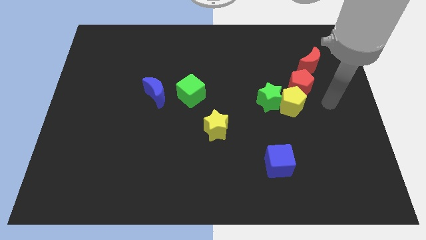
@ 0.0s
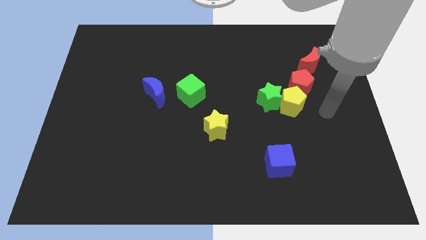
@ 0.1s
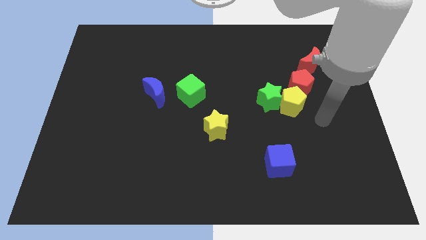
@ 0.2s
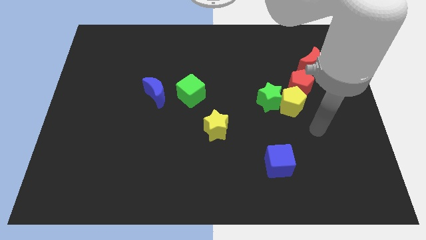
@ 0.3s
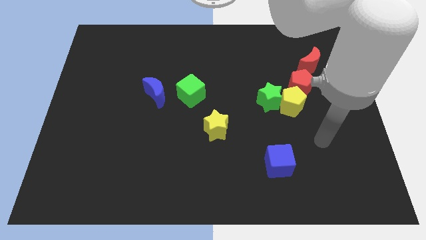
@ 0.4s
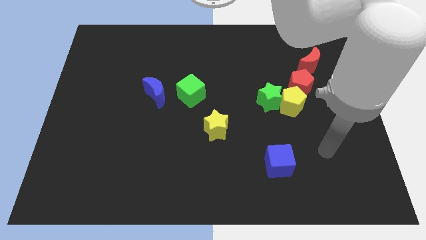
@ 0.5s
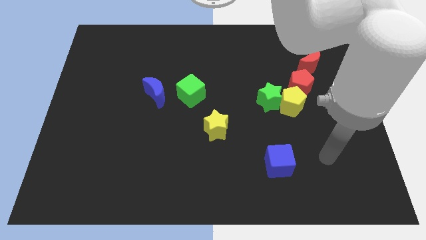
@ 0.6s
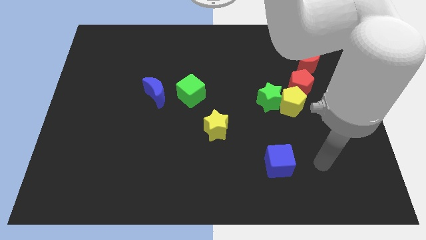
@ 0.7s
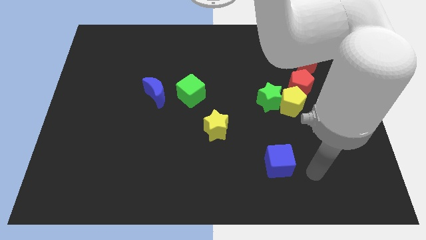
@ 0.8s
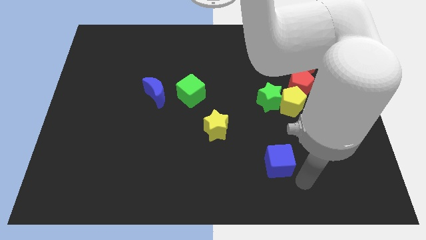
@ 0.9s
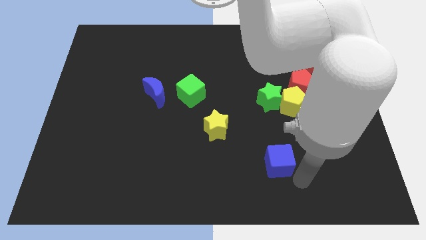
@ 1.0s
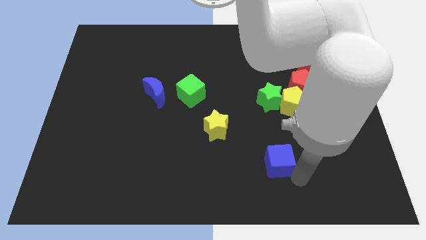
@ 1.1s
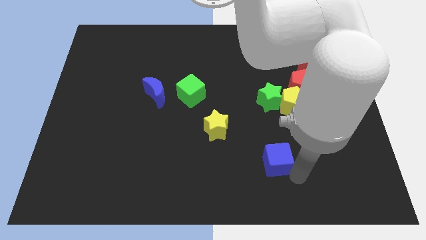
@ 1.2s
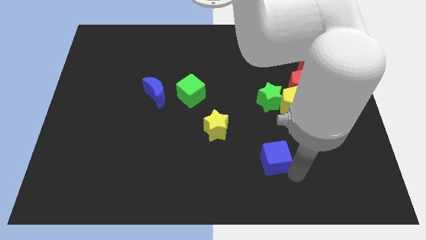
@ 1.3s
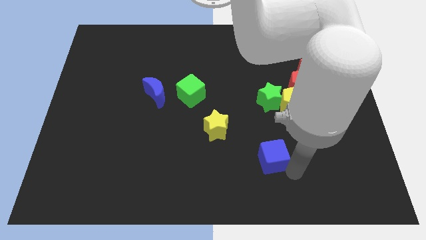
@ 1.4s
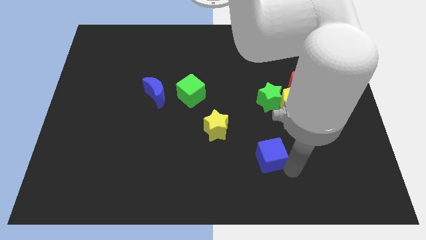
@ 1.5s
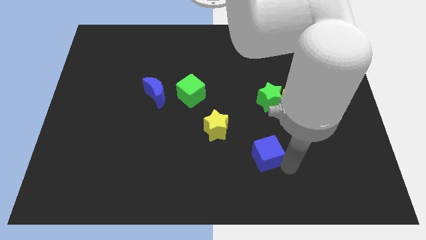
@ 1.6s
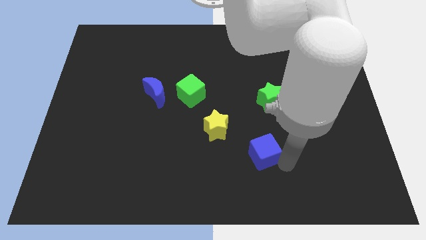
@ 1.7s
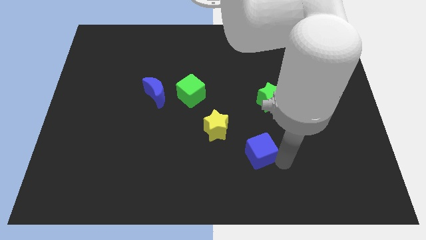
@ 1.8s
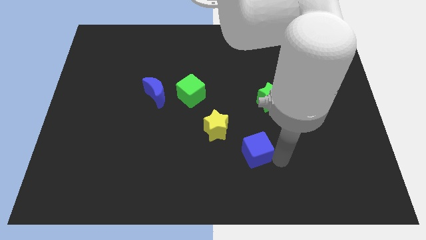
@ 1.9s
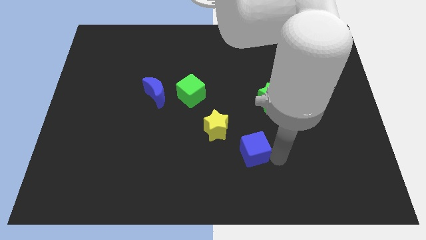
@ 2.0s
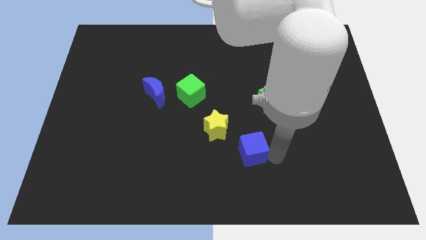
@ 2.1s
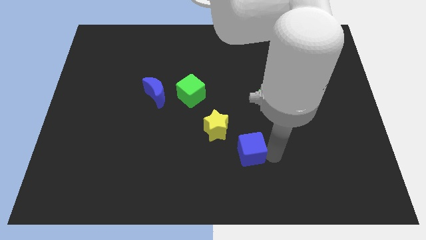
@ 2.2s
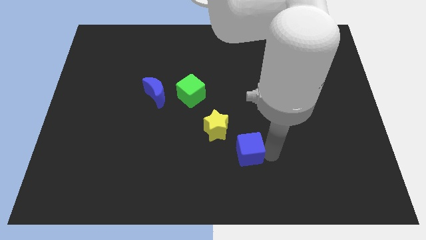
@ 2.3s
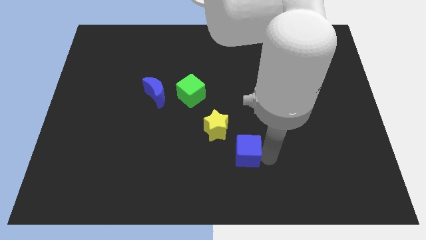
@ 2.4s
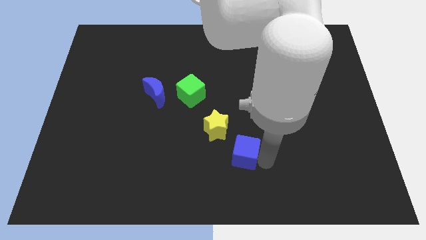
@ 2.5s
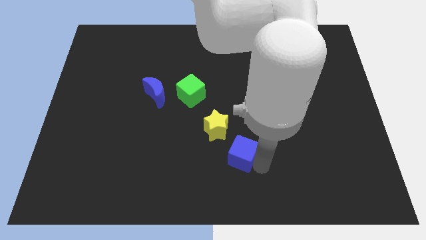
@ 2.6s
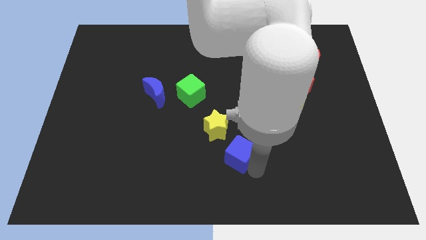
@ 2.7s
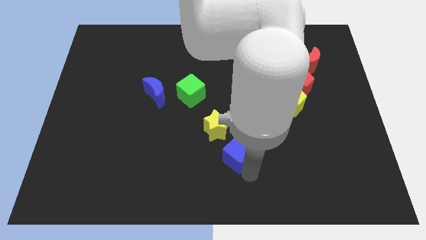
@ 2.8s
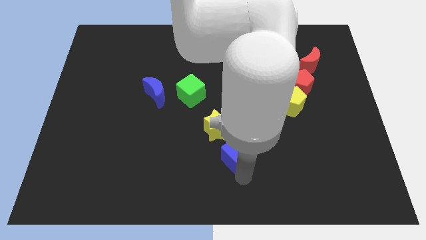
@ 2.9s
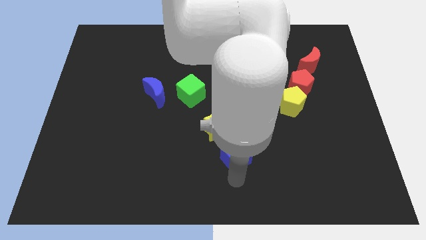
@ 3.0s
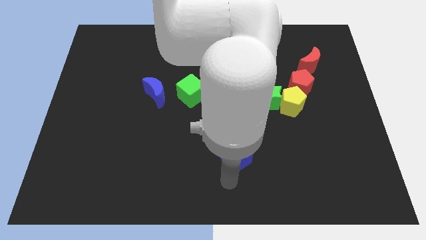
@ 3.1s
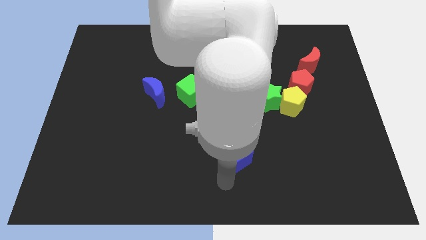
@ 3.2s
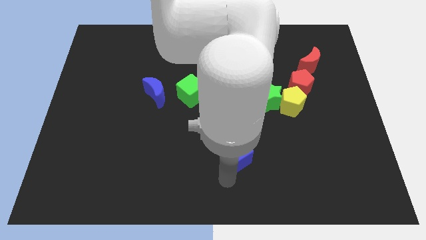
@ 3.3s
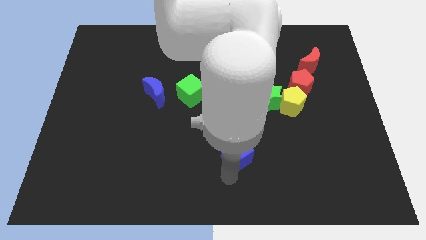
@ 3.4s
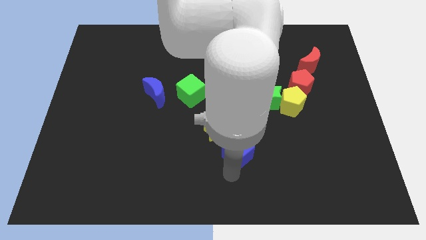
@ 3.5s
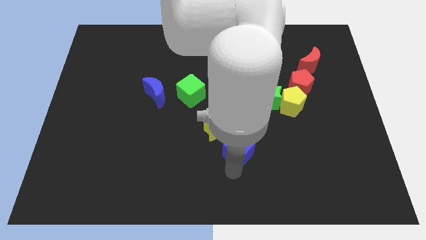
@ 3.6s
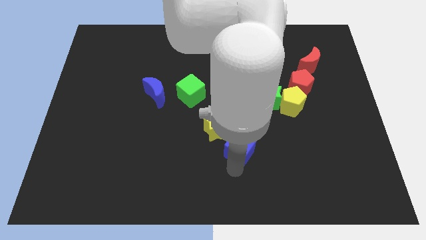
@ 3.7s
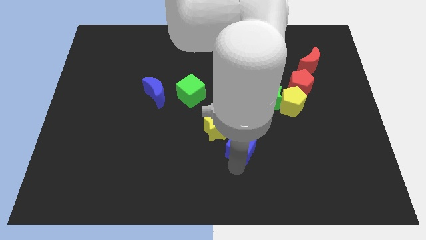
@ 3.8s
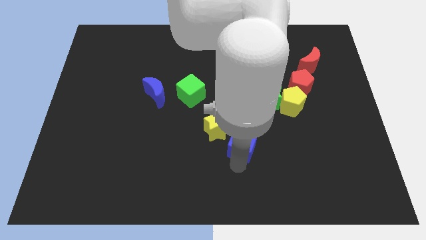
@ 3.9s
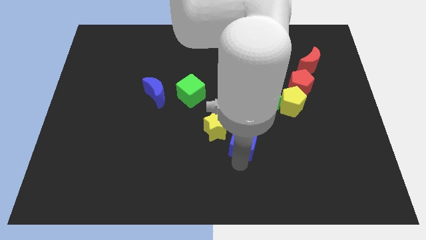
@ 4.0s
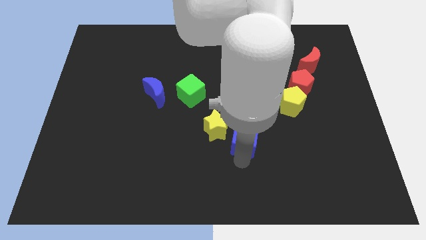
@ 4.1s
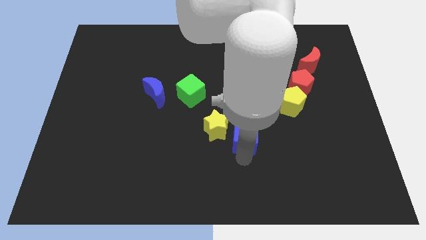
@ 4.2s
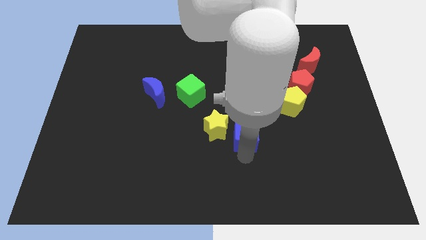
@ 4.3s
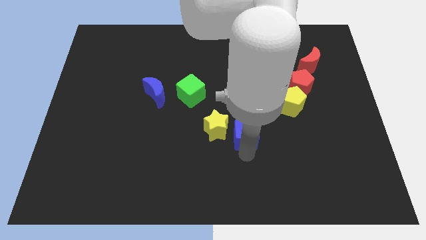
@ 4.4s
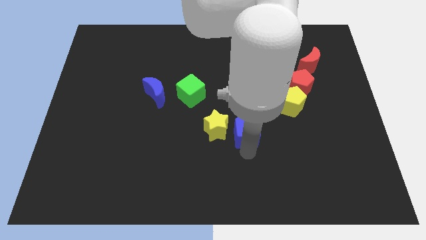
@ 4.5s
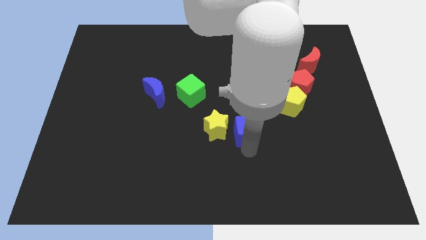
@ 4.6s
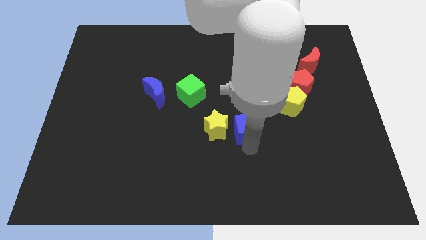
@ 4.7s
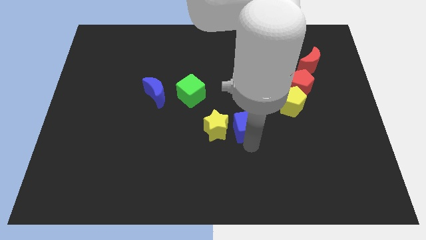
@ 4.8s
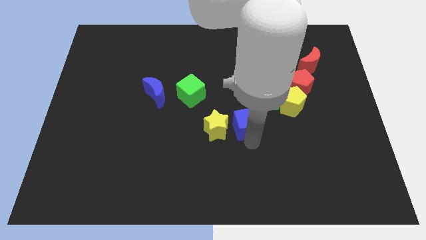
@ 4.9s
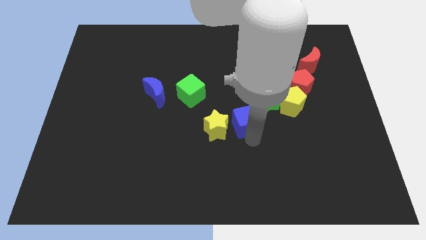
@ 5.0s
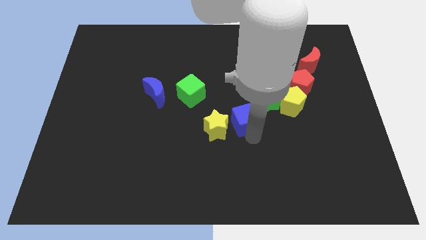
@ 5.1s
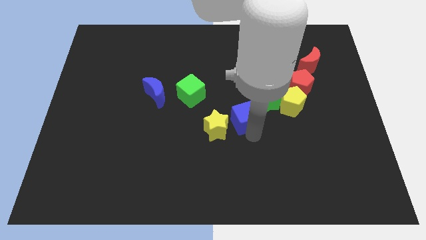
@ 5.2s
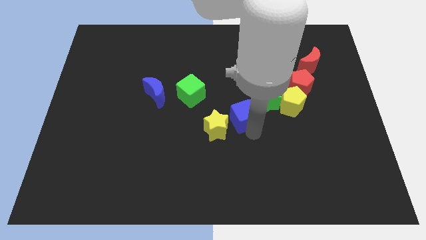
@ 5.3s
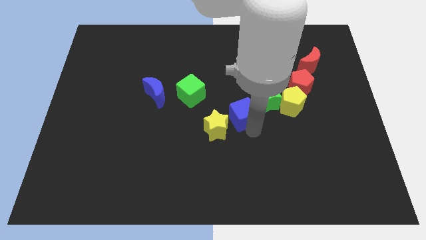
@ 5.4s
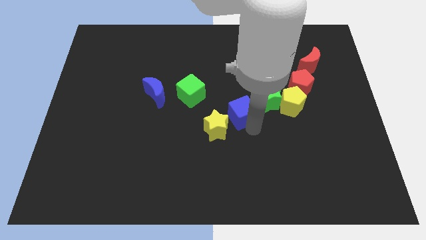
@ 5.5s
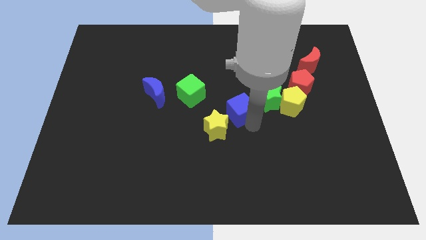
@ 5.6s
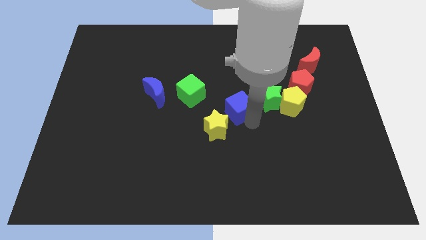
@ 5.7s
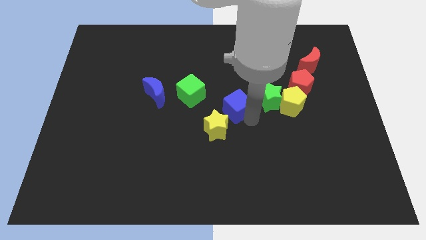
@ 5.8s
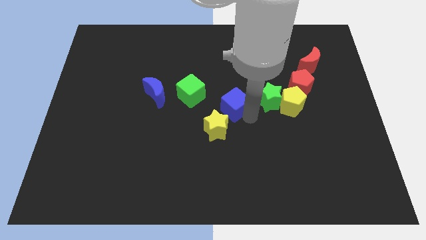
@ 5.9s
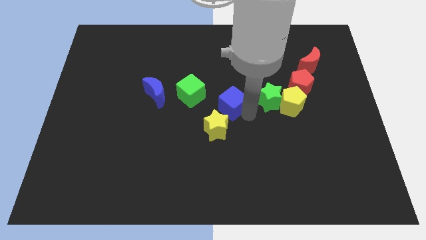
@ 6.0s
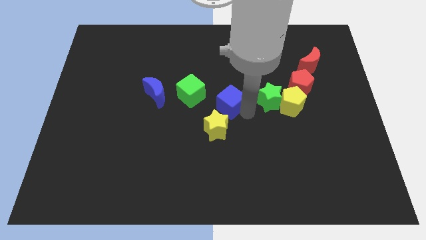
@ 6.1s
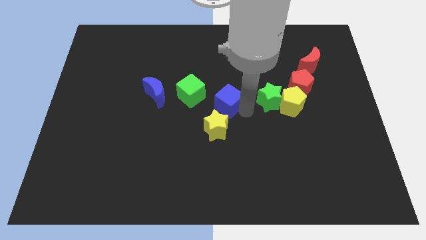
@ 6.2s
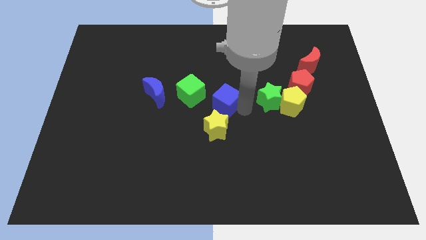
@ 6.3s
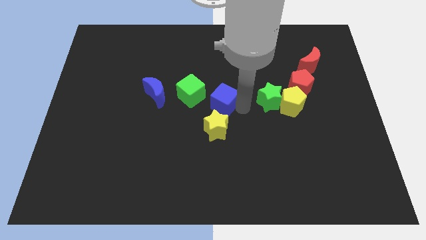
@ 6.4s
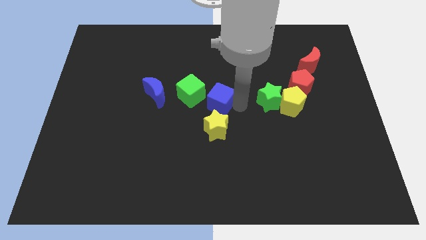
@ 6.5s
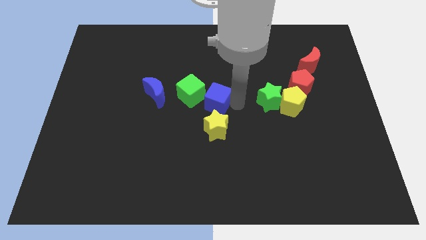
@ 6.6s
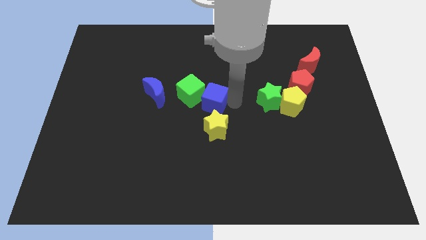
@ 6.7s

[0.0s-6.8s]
slide the blue cube next to the green cube

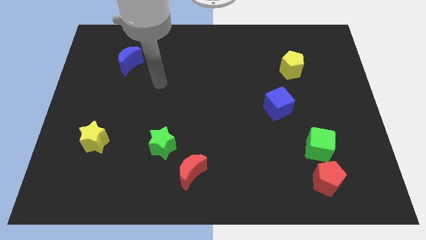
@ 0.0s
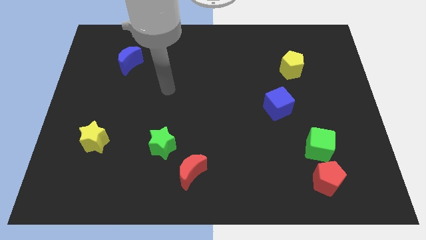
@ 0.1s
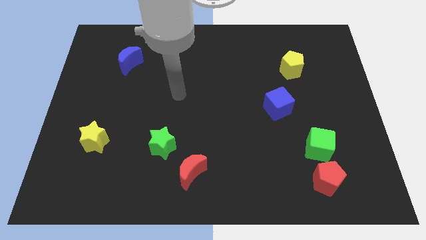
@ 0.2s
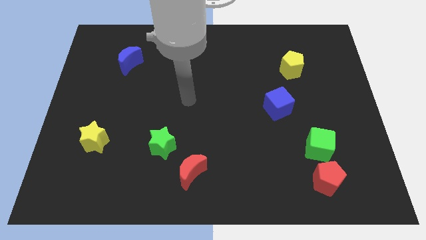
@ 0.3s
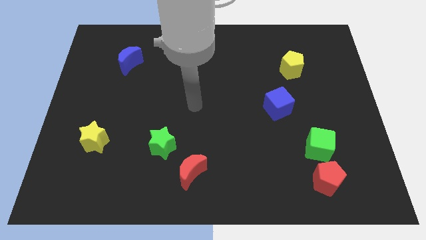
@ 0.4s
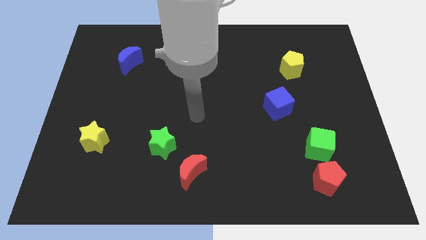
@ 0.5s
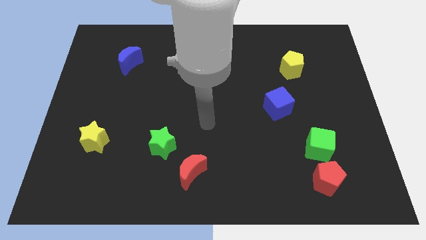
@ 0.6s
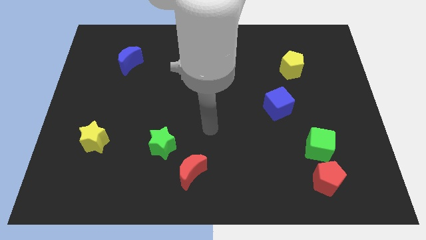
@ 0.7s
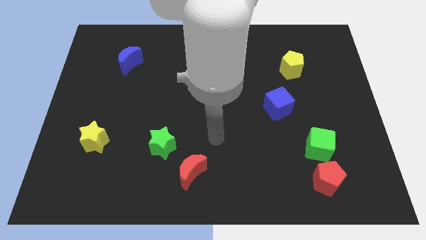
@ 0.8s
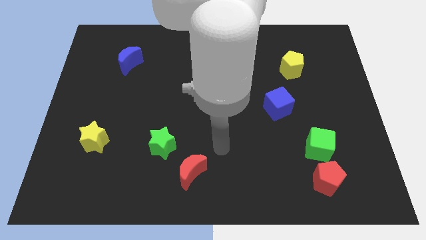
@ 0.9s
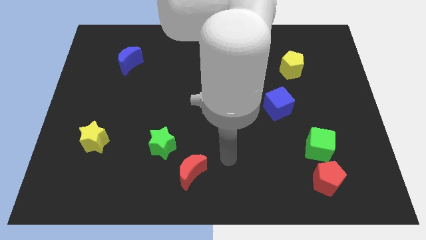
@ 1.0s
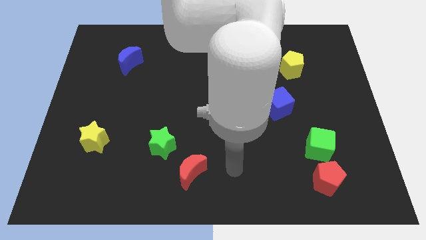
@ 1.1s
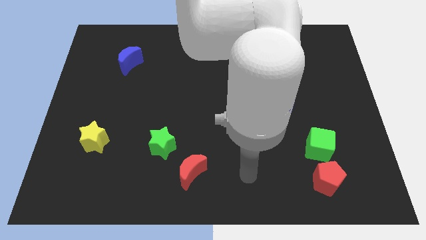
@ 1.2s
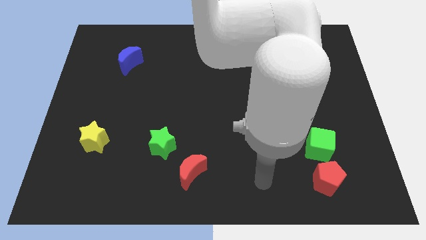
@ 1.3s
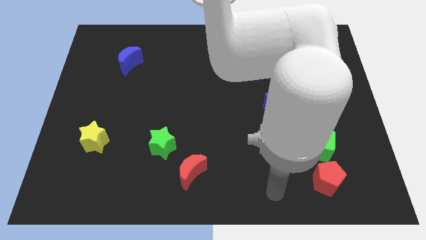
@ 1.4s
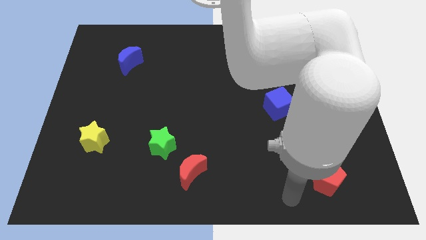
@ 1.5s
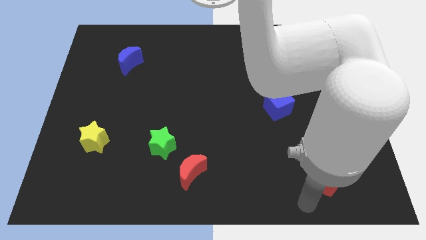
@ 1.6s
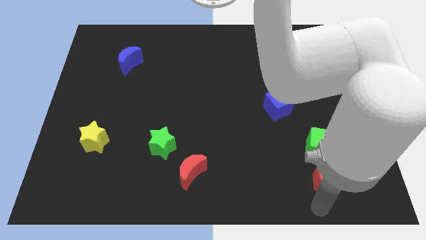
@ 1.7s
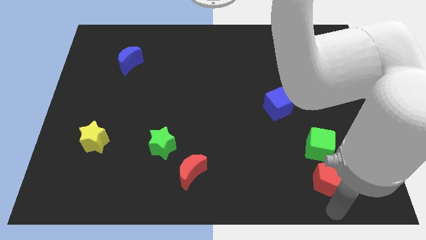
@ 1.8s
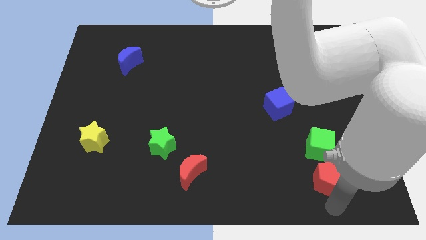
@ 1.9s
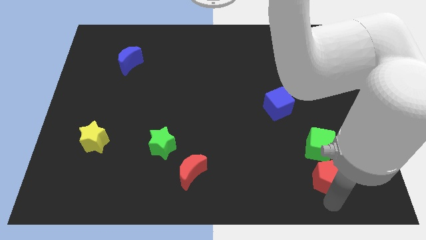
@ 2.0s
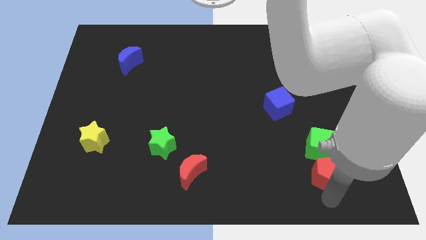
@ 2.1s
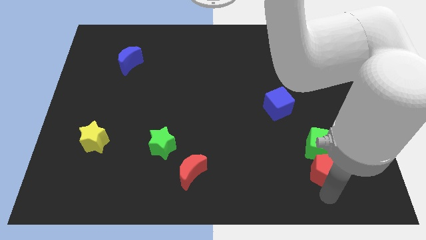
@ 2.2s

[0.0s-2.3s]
move the red pentagon to the green cube
